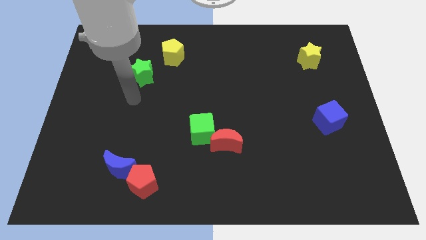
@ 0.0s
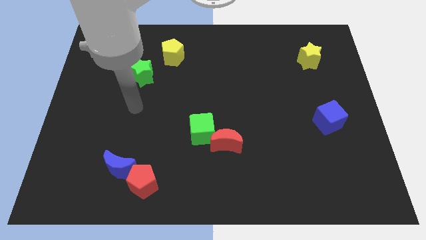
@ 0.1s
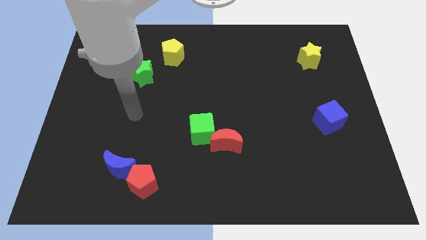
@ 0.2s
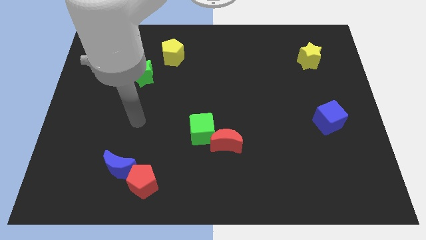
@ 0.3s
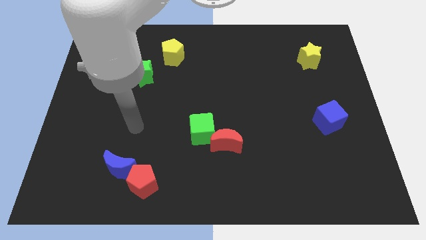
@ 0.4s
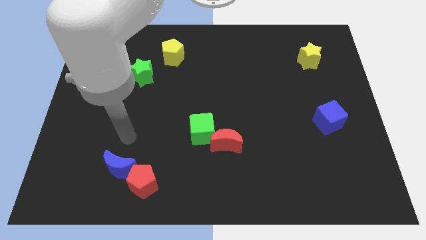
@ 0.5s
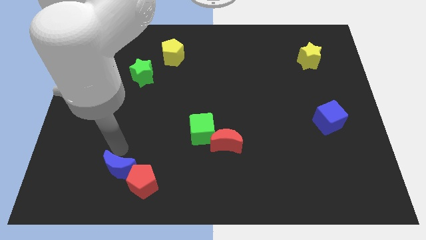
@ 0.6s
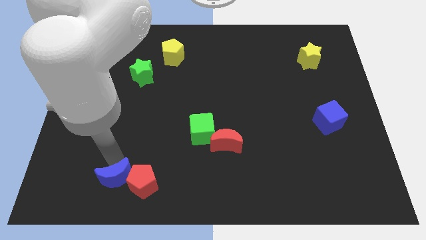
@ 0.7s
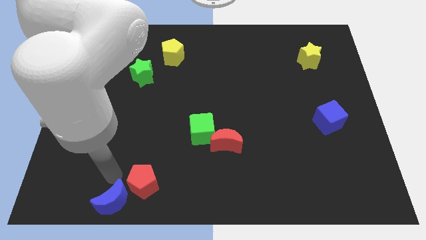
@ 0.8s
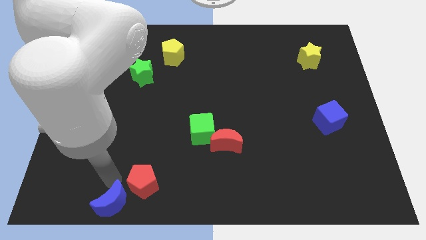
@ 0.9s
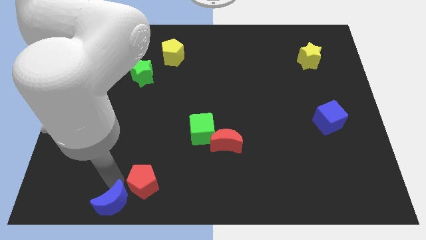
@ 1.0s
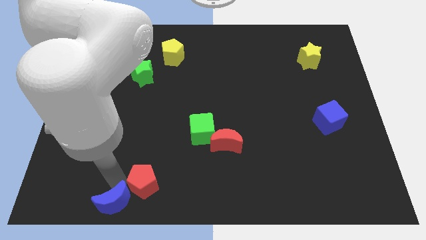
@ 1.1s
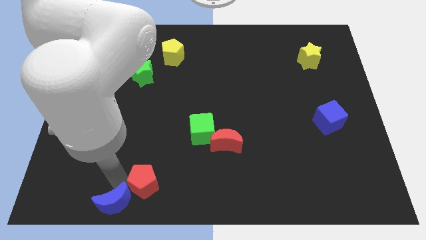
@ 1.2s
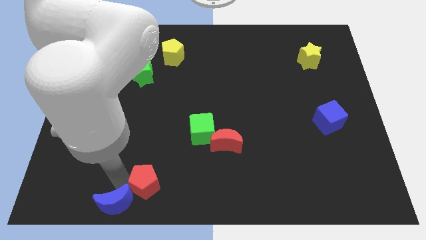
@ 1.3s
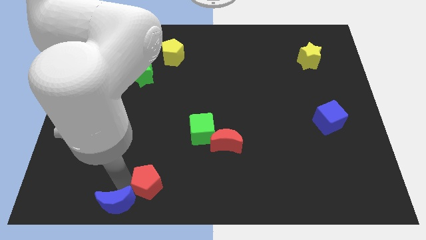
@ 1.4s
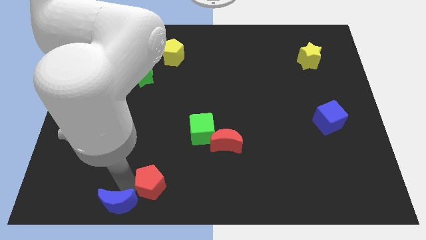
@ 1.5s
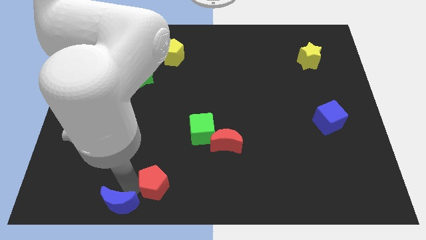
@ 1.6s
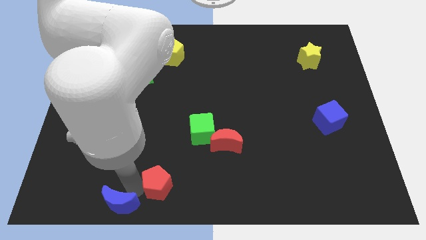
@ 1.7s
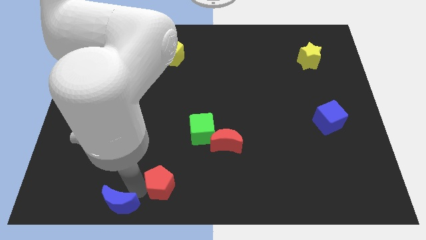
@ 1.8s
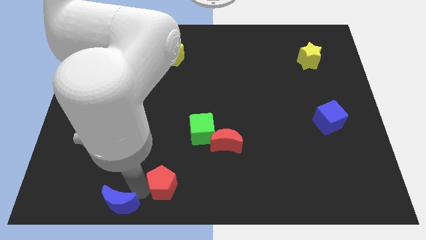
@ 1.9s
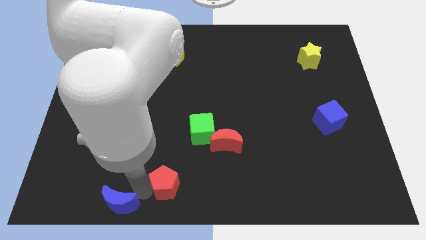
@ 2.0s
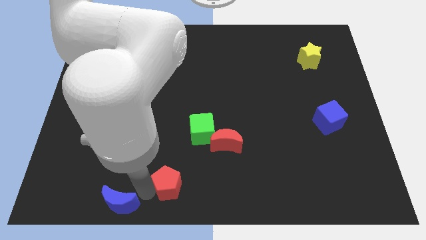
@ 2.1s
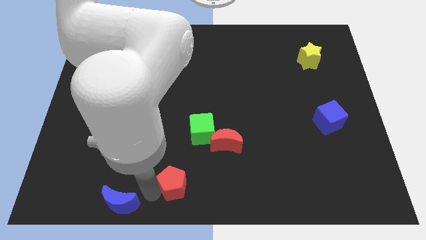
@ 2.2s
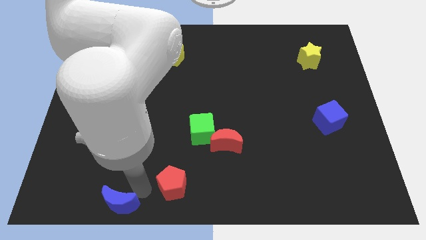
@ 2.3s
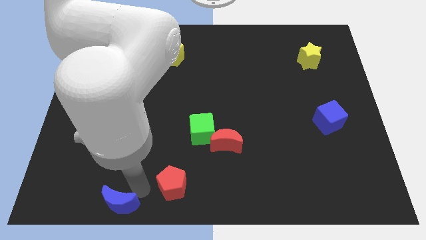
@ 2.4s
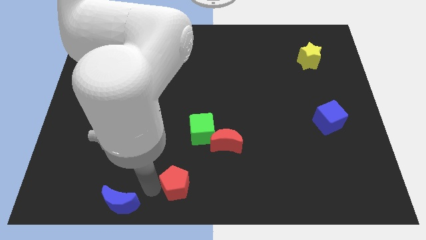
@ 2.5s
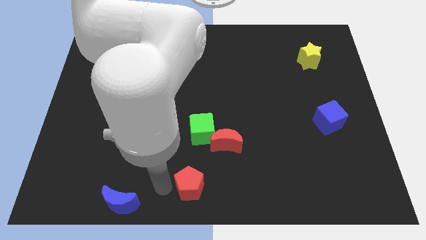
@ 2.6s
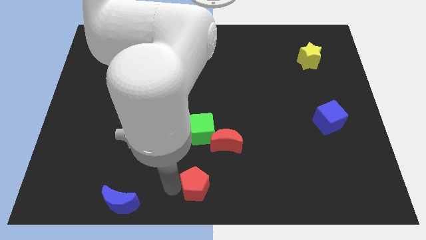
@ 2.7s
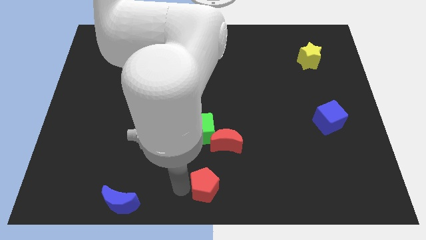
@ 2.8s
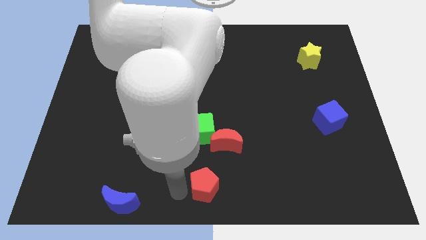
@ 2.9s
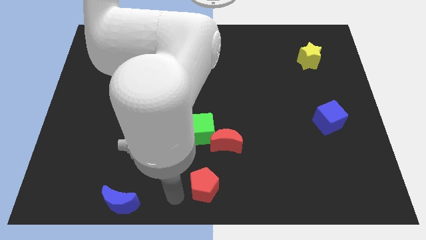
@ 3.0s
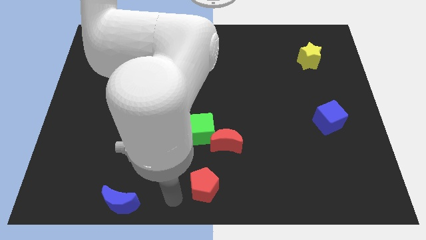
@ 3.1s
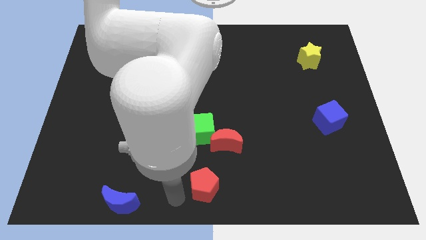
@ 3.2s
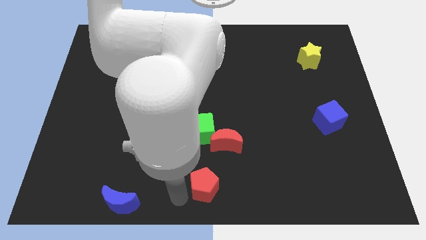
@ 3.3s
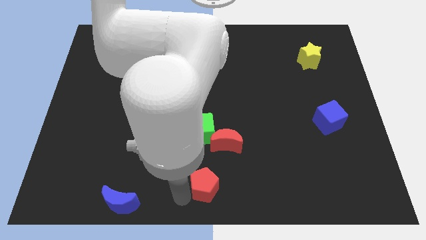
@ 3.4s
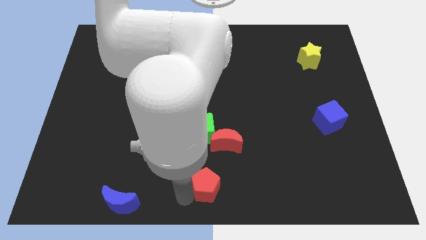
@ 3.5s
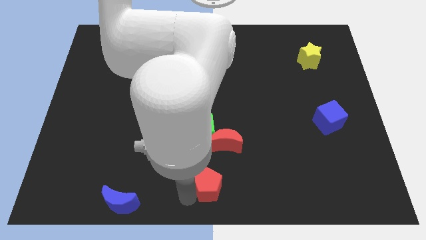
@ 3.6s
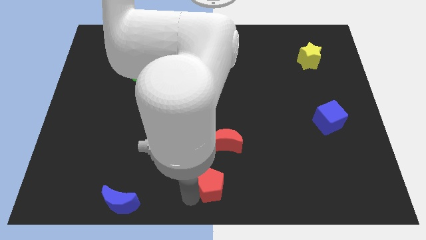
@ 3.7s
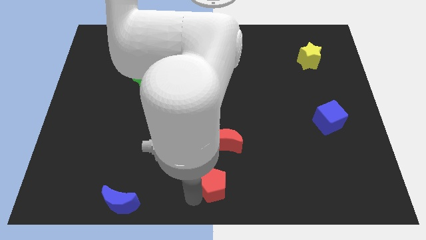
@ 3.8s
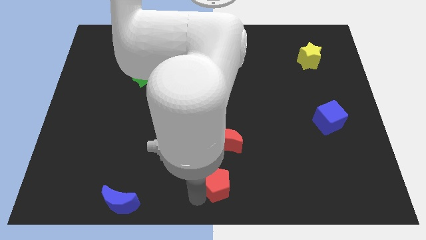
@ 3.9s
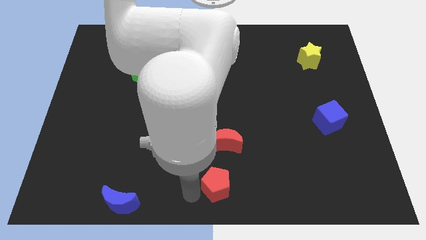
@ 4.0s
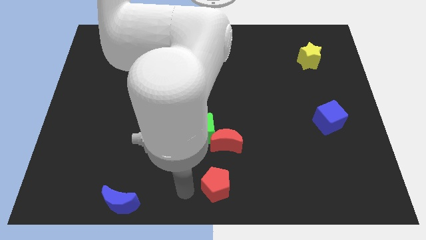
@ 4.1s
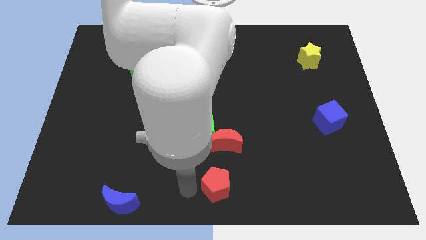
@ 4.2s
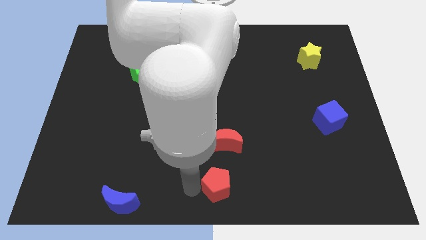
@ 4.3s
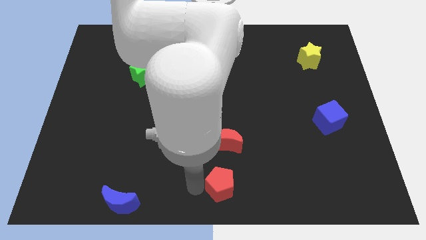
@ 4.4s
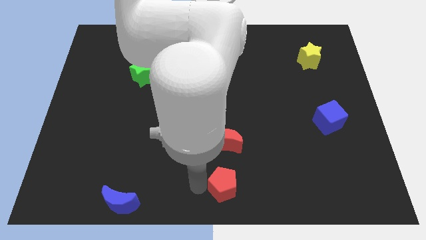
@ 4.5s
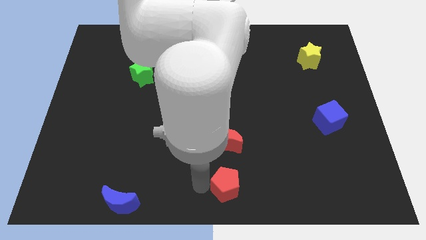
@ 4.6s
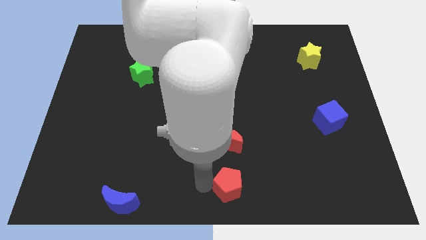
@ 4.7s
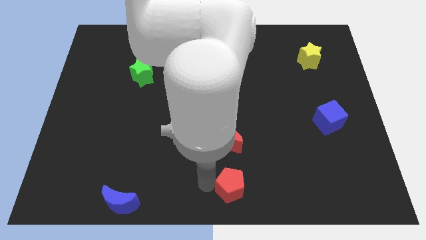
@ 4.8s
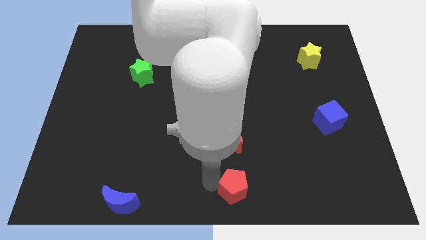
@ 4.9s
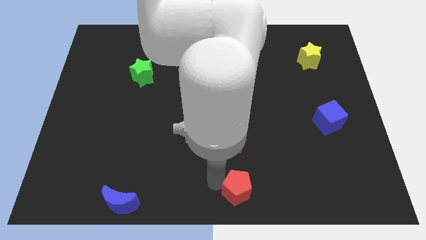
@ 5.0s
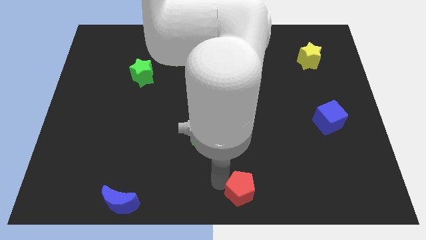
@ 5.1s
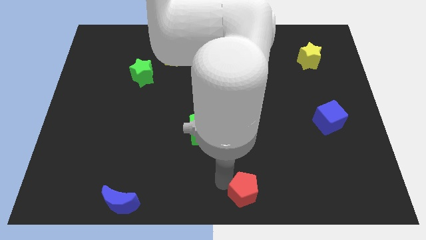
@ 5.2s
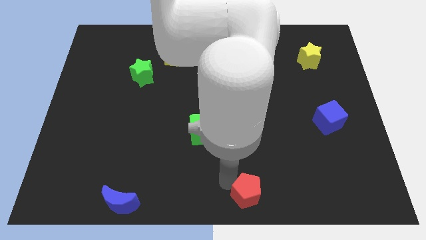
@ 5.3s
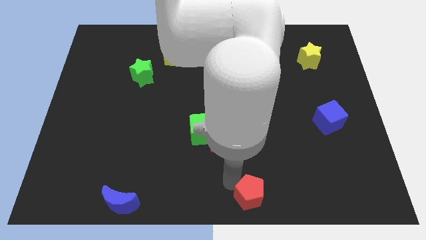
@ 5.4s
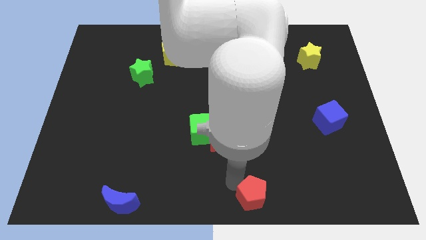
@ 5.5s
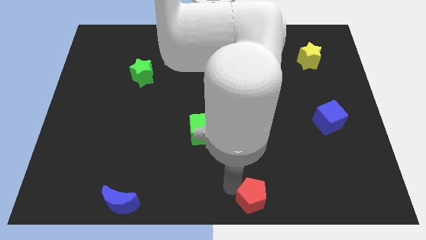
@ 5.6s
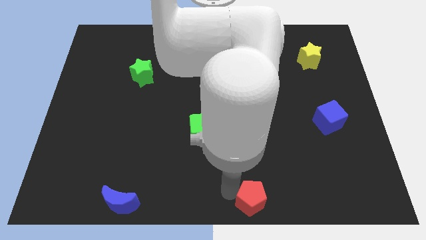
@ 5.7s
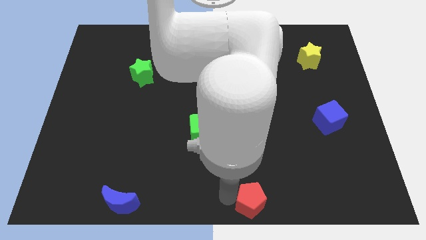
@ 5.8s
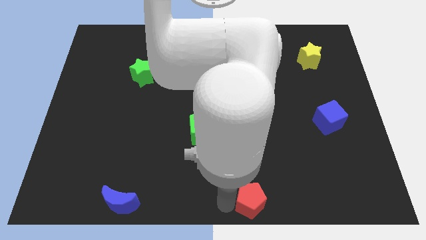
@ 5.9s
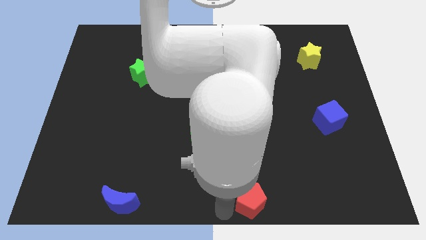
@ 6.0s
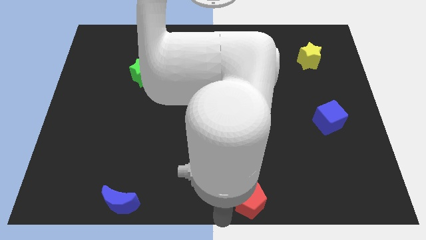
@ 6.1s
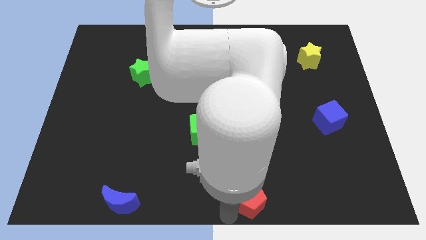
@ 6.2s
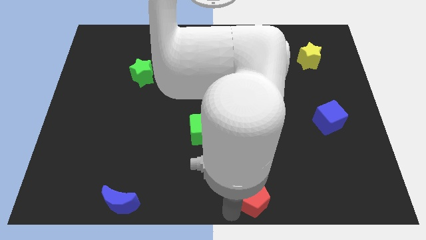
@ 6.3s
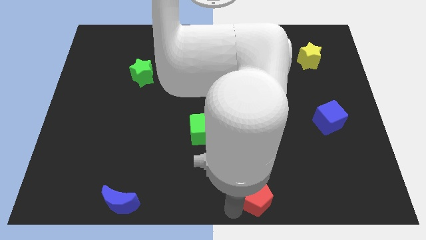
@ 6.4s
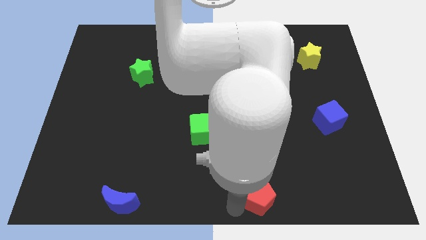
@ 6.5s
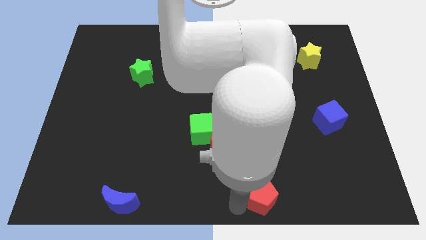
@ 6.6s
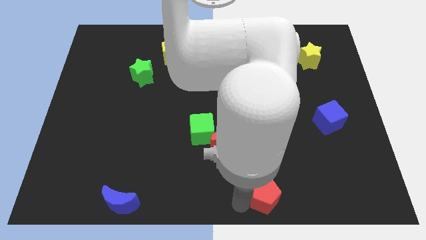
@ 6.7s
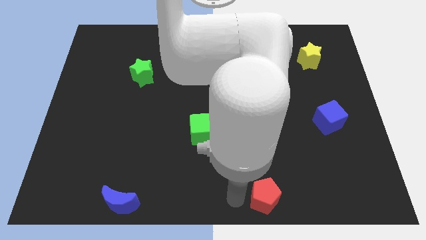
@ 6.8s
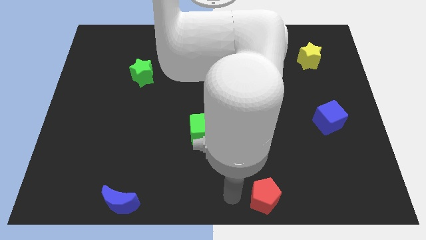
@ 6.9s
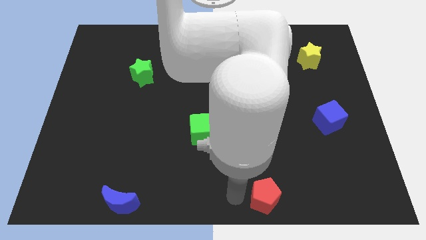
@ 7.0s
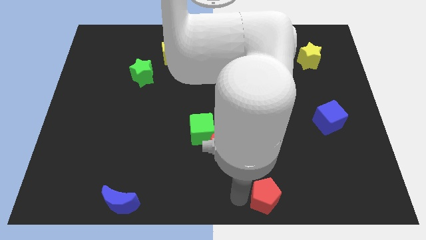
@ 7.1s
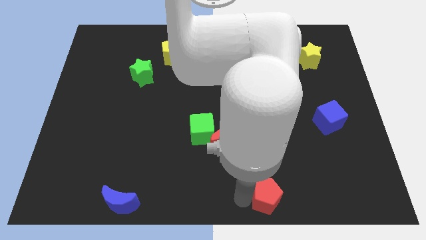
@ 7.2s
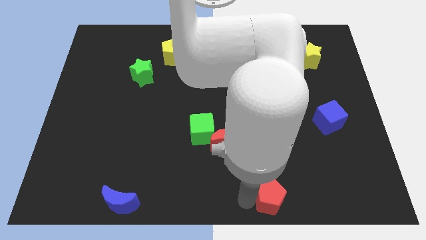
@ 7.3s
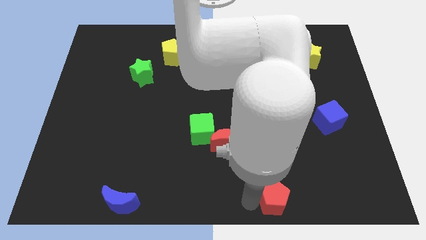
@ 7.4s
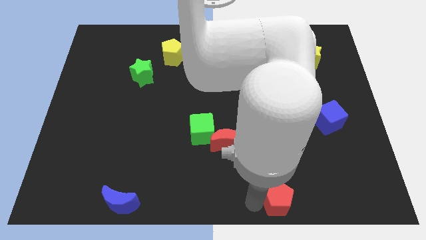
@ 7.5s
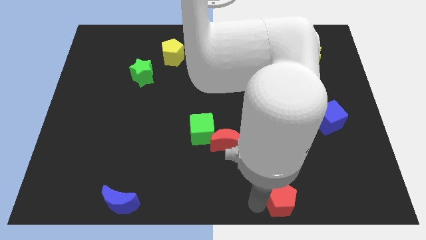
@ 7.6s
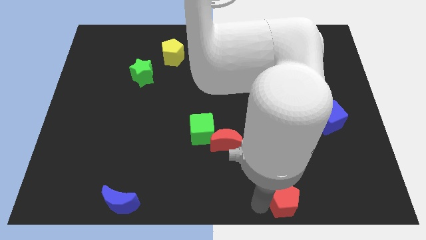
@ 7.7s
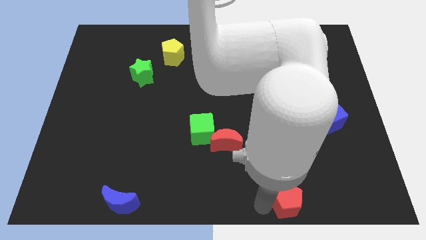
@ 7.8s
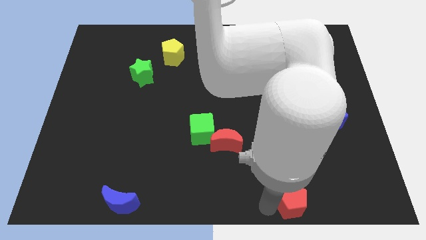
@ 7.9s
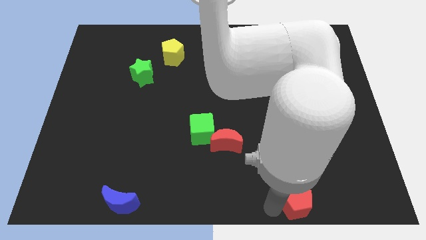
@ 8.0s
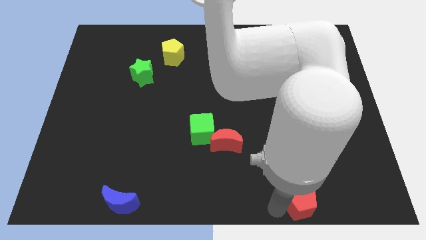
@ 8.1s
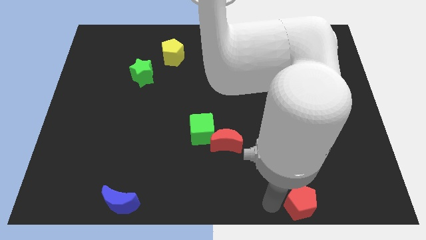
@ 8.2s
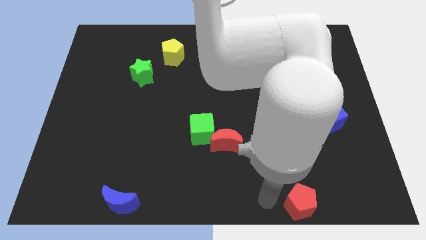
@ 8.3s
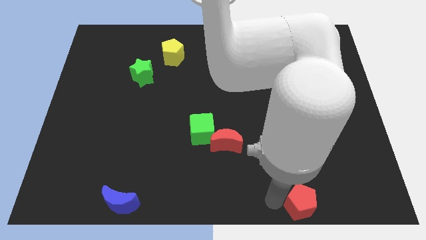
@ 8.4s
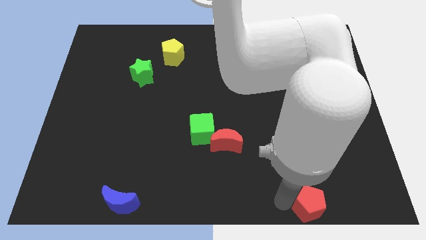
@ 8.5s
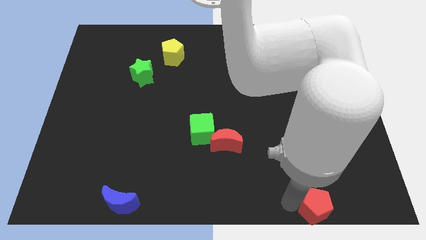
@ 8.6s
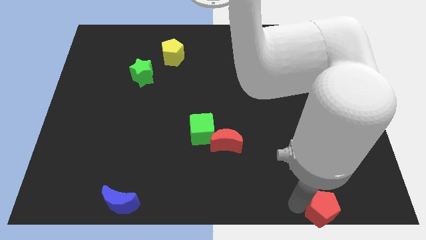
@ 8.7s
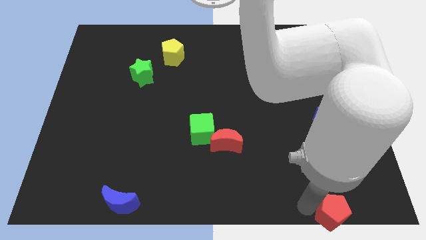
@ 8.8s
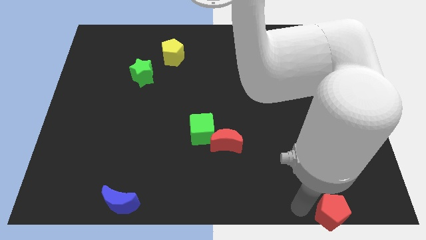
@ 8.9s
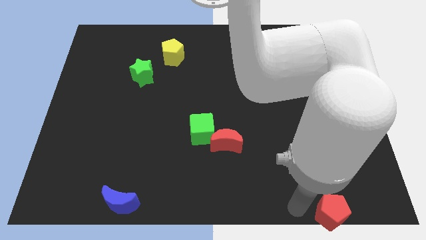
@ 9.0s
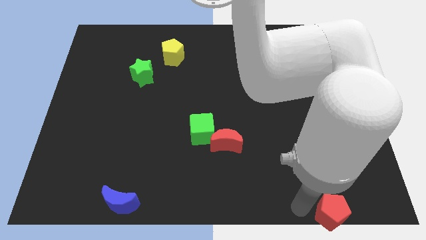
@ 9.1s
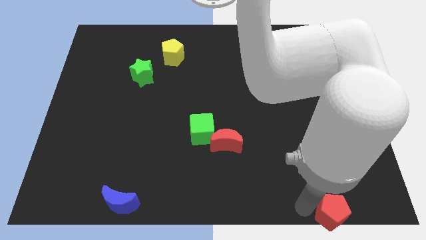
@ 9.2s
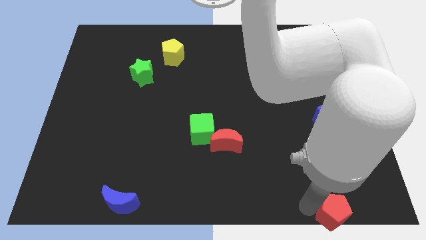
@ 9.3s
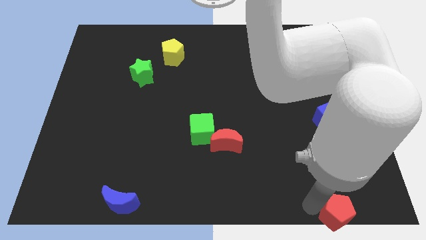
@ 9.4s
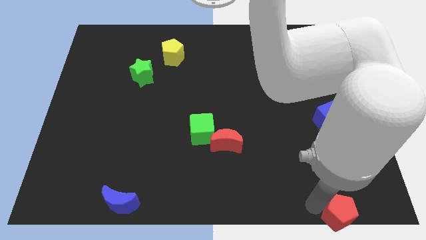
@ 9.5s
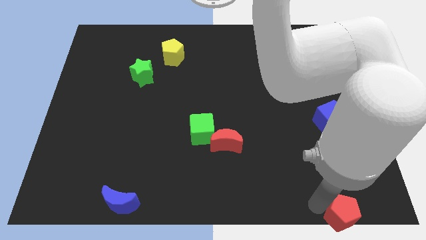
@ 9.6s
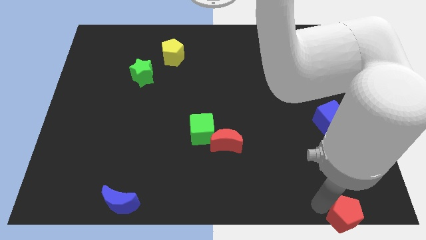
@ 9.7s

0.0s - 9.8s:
put the red pentagon to the bottom right of the board
